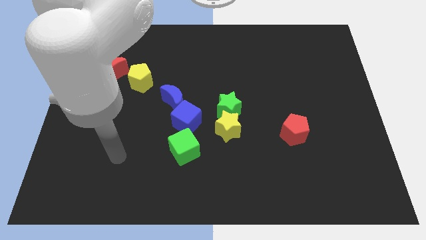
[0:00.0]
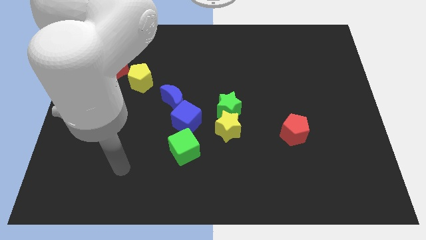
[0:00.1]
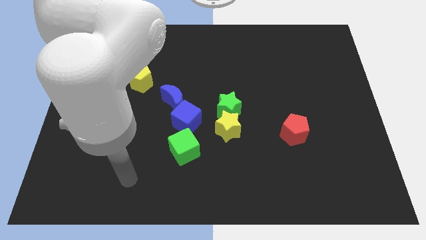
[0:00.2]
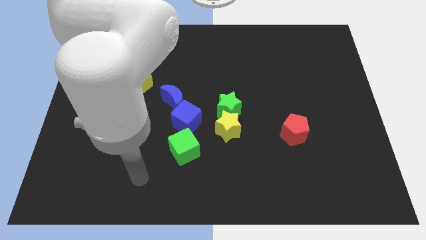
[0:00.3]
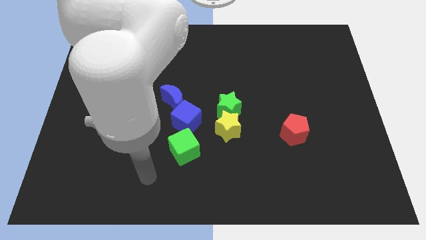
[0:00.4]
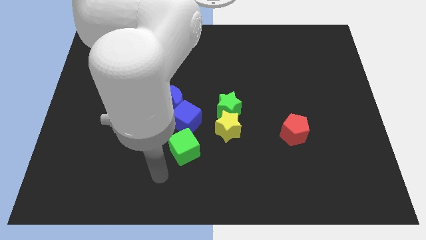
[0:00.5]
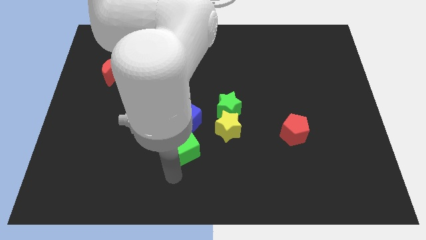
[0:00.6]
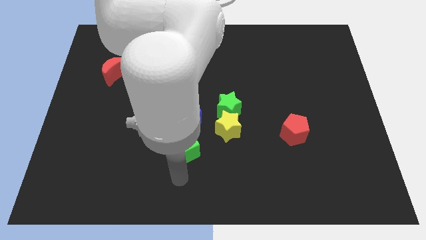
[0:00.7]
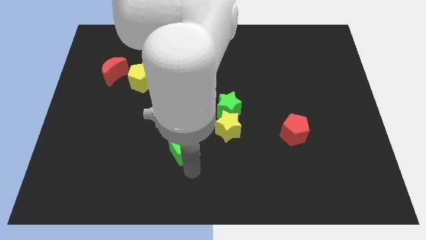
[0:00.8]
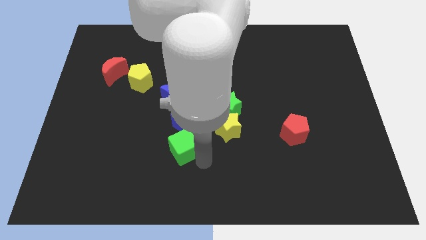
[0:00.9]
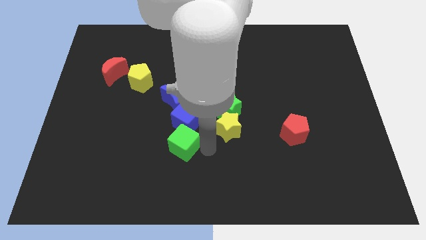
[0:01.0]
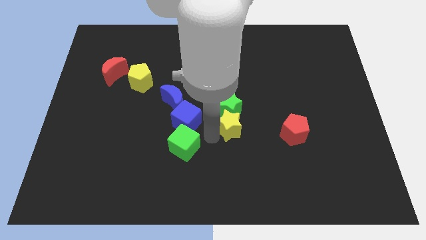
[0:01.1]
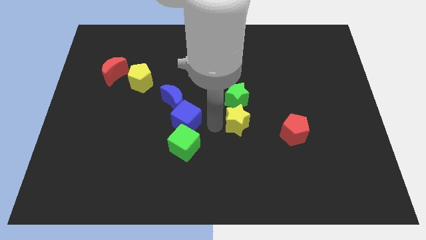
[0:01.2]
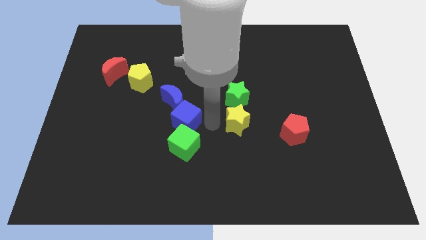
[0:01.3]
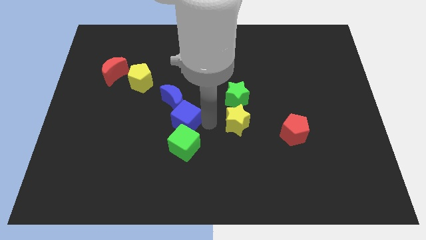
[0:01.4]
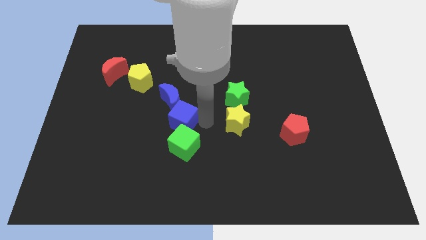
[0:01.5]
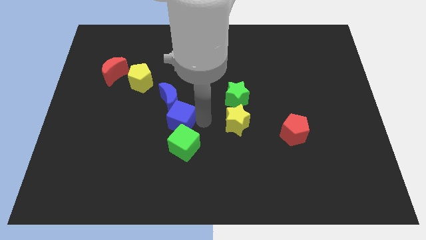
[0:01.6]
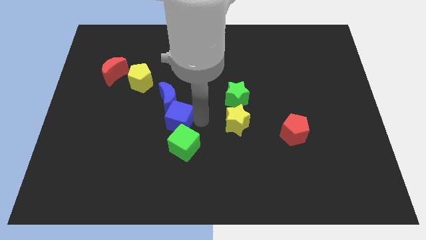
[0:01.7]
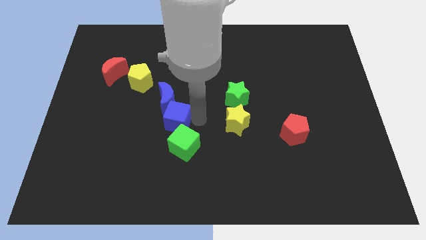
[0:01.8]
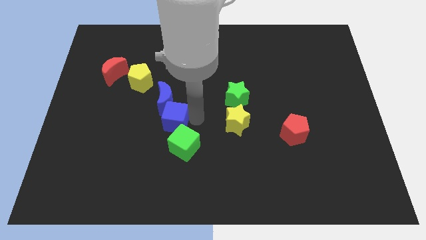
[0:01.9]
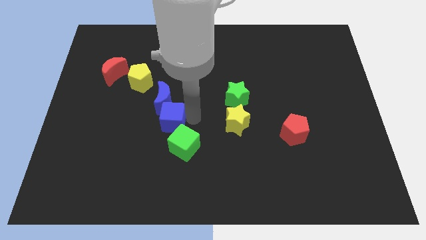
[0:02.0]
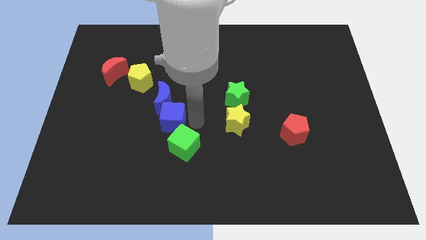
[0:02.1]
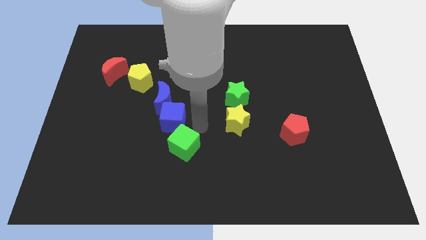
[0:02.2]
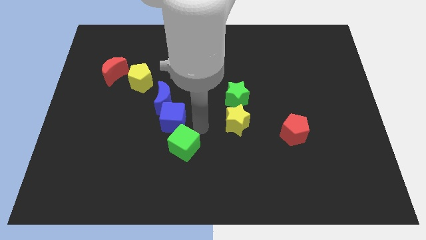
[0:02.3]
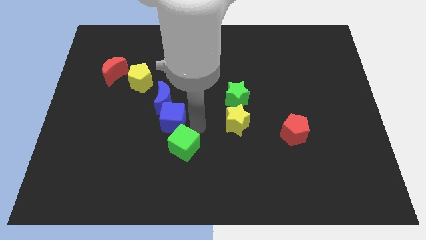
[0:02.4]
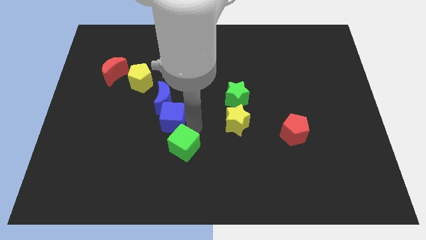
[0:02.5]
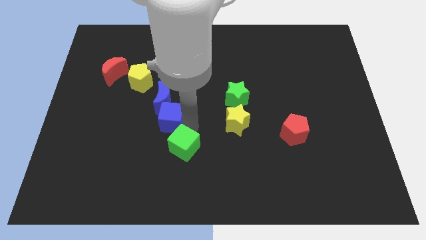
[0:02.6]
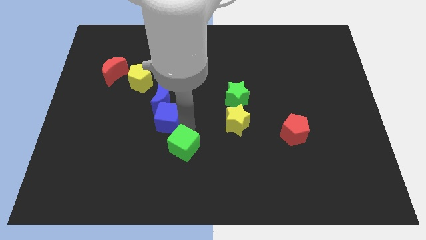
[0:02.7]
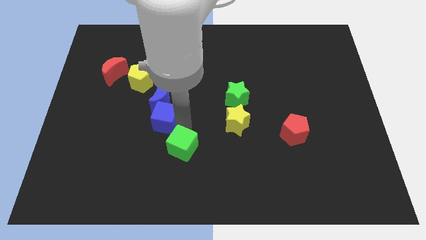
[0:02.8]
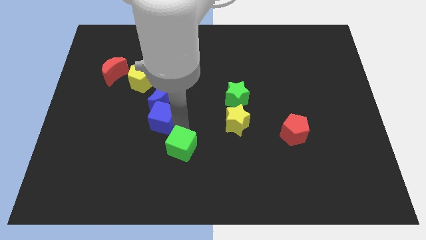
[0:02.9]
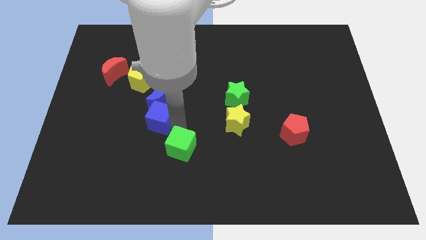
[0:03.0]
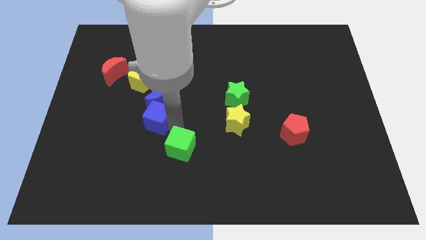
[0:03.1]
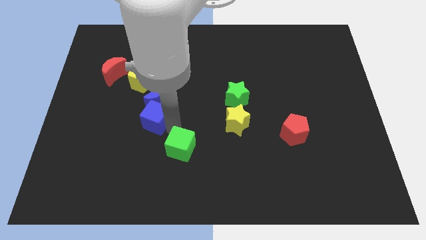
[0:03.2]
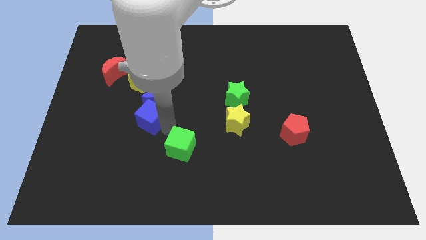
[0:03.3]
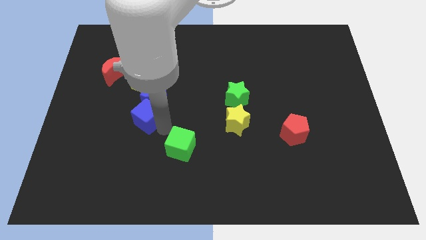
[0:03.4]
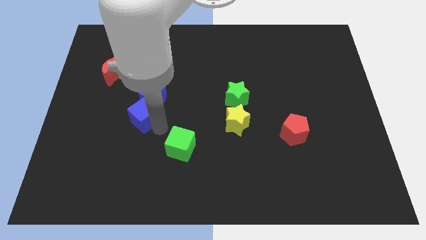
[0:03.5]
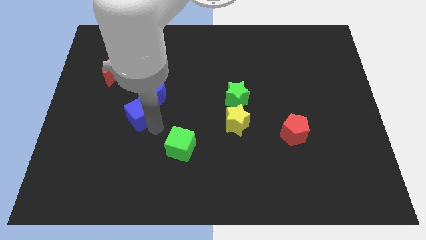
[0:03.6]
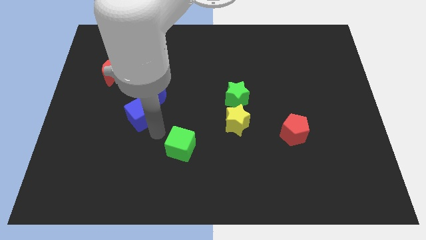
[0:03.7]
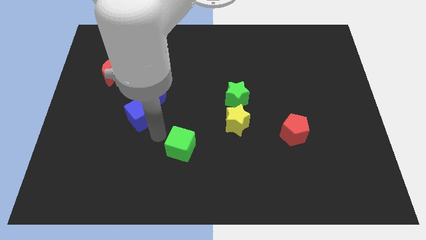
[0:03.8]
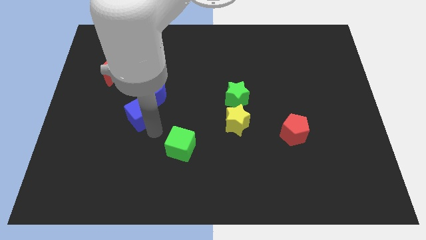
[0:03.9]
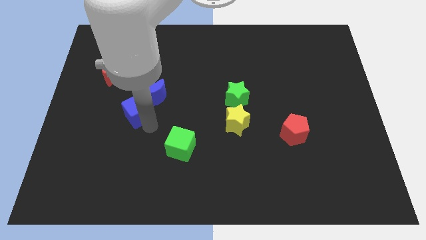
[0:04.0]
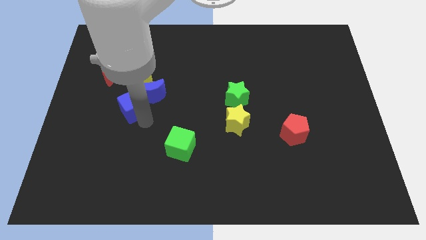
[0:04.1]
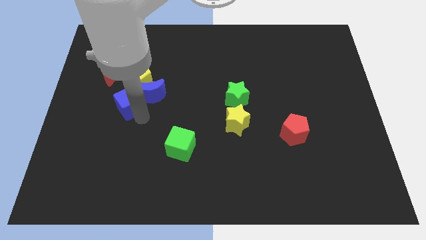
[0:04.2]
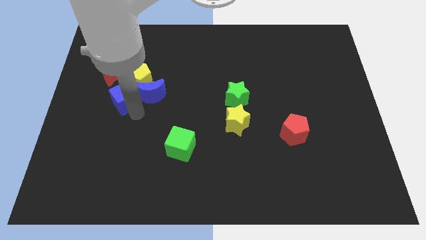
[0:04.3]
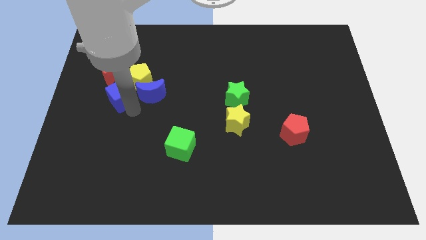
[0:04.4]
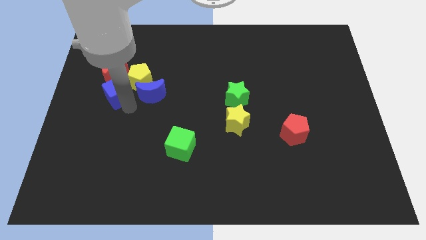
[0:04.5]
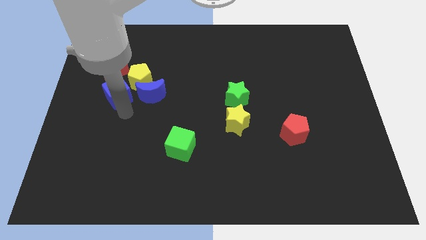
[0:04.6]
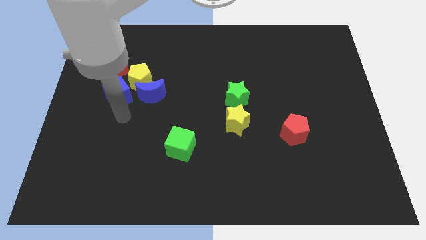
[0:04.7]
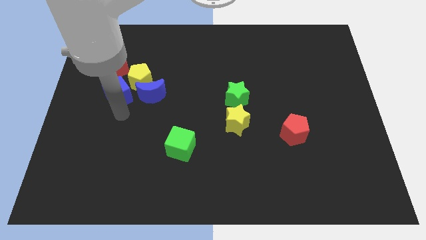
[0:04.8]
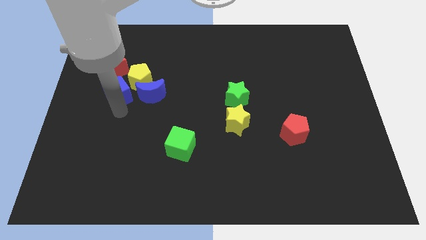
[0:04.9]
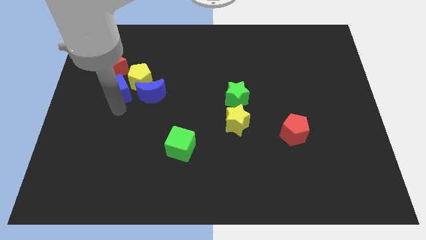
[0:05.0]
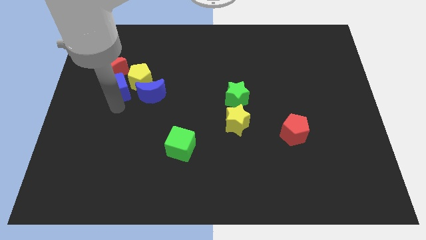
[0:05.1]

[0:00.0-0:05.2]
push the blue cube next to the red moon

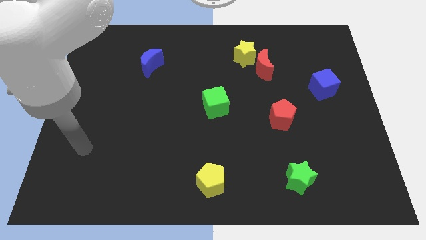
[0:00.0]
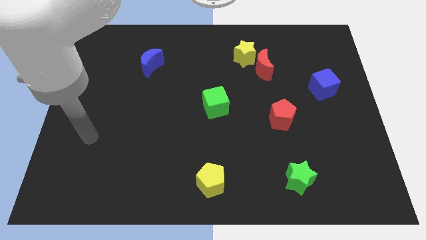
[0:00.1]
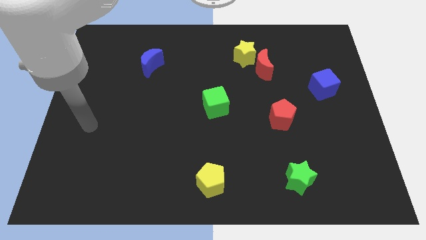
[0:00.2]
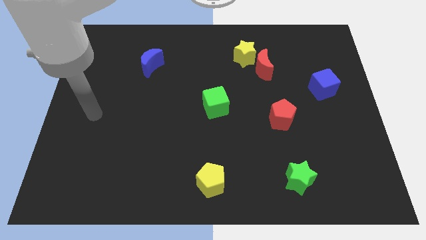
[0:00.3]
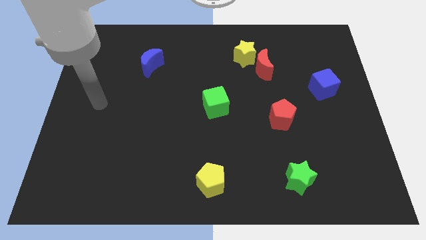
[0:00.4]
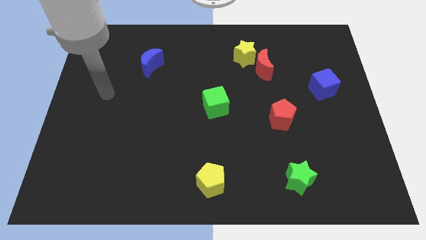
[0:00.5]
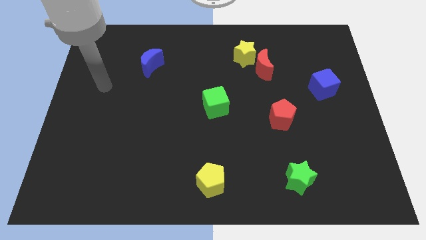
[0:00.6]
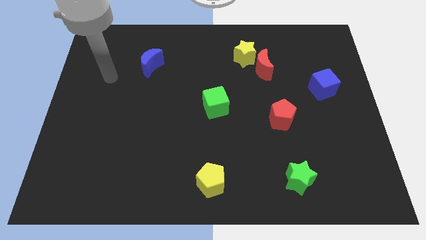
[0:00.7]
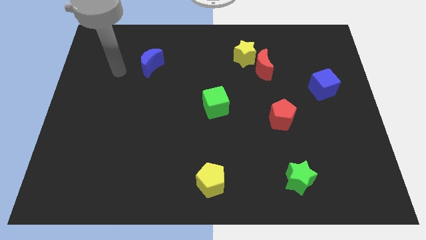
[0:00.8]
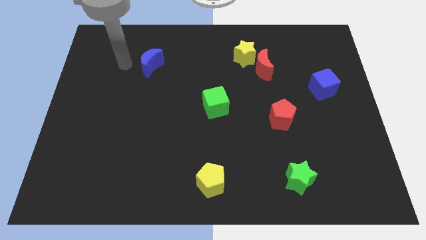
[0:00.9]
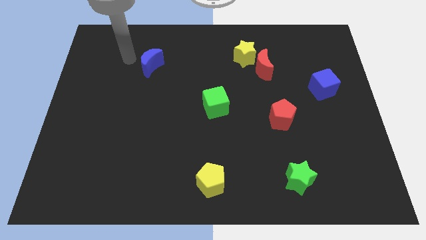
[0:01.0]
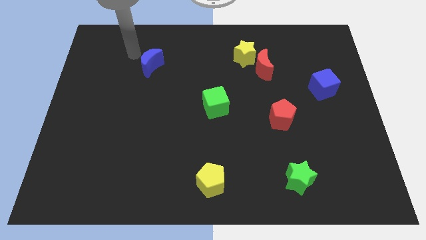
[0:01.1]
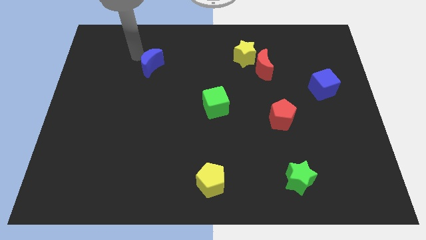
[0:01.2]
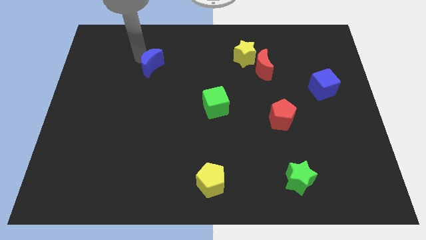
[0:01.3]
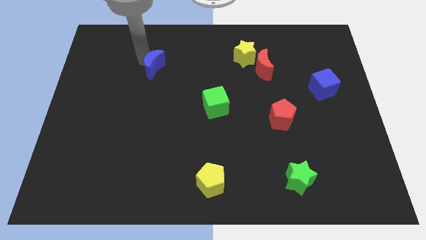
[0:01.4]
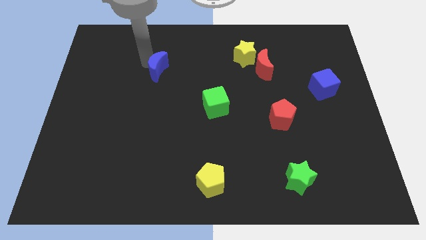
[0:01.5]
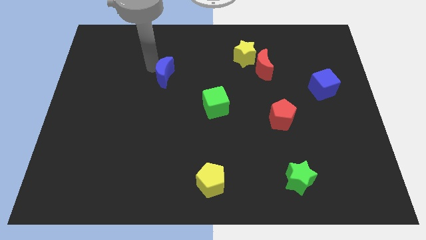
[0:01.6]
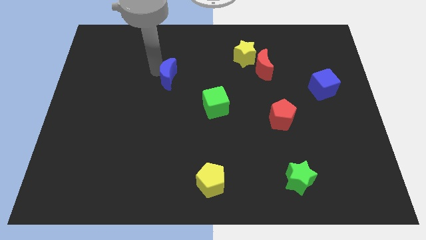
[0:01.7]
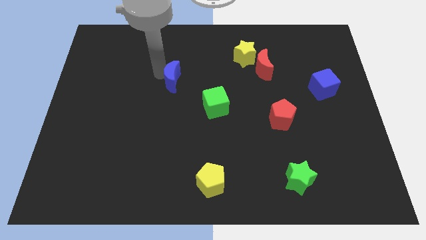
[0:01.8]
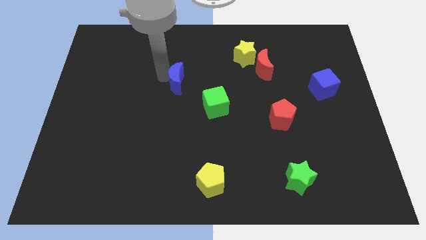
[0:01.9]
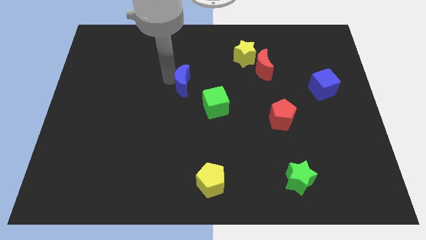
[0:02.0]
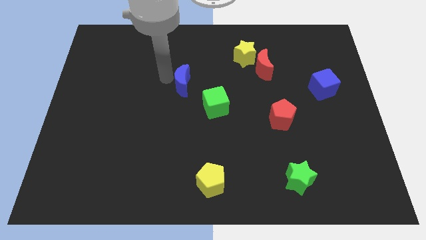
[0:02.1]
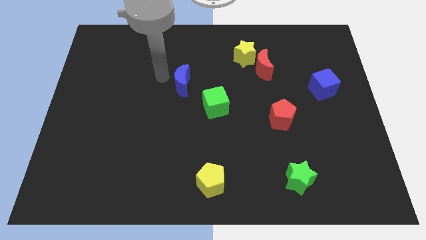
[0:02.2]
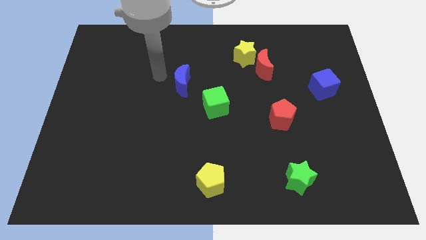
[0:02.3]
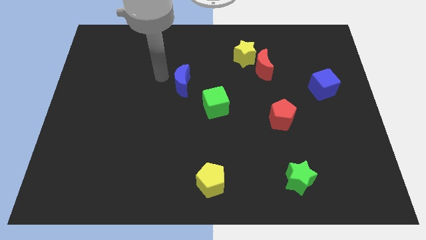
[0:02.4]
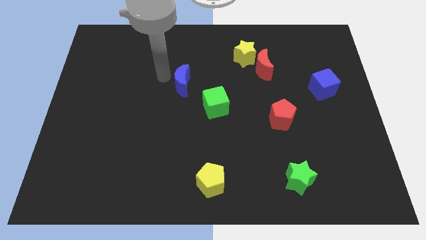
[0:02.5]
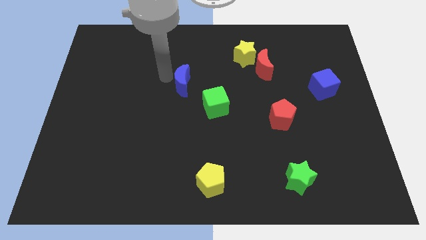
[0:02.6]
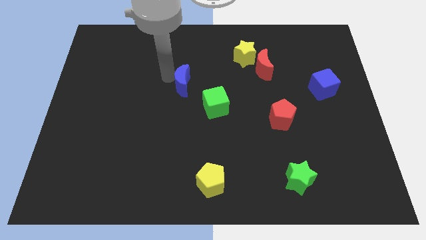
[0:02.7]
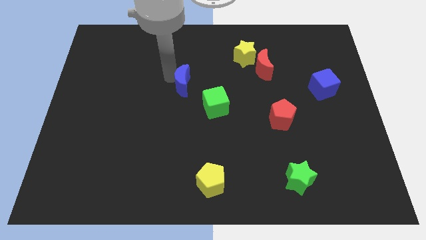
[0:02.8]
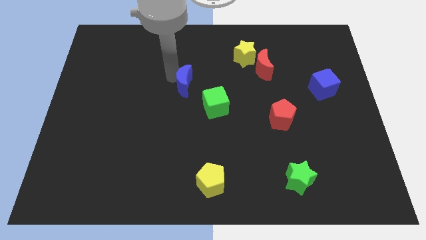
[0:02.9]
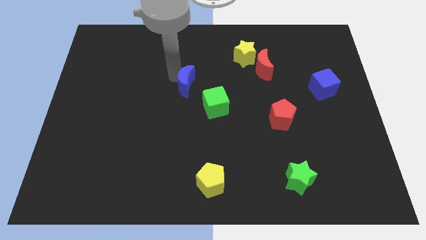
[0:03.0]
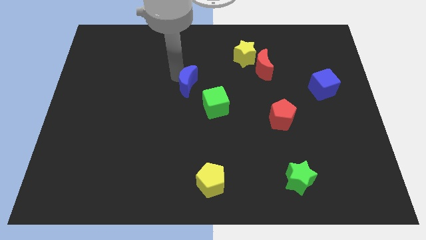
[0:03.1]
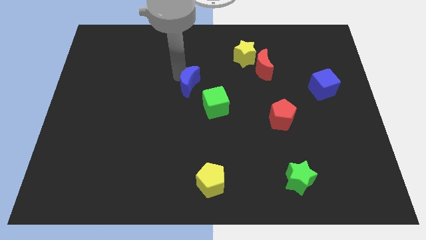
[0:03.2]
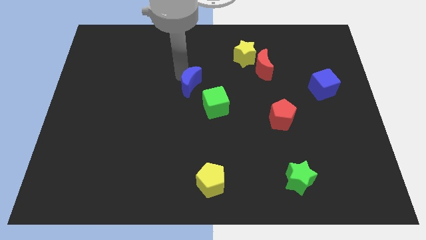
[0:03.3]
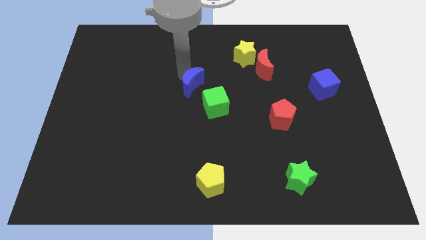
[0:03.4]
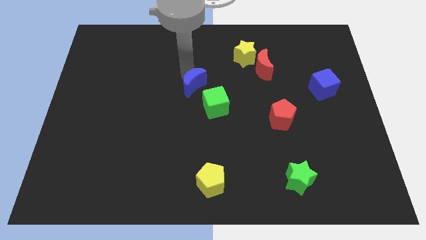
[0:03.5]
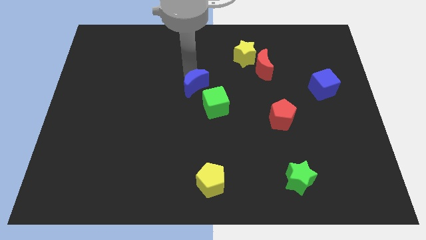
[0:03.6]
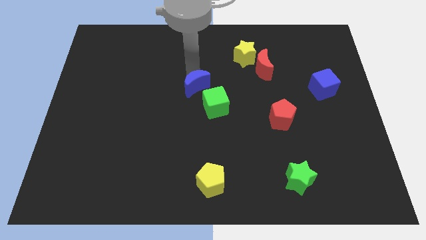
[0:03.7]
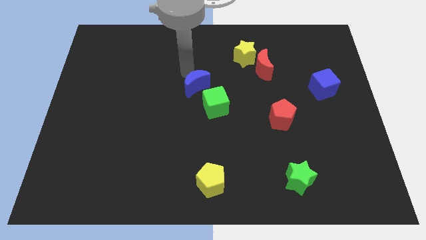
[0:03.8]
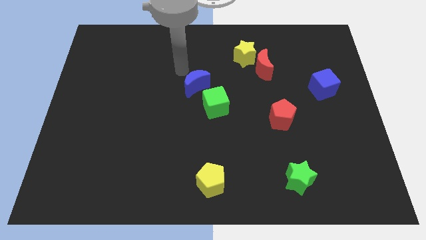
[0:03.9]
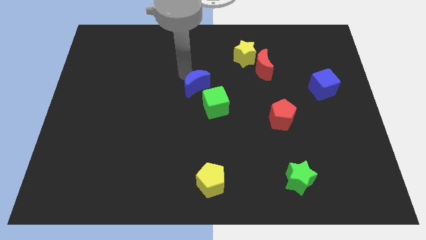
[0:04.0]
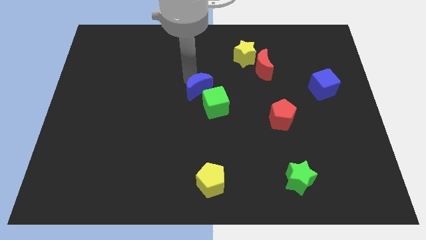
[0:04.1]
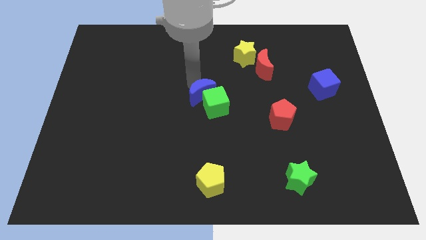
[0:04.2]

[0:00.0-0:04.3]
put the blue moon to the green cube
